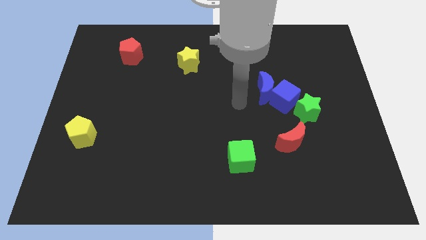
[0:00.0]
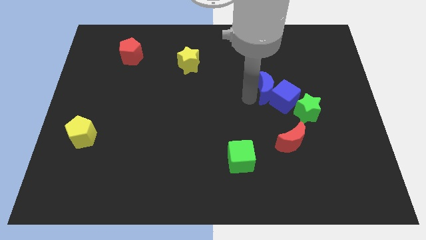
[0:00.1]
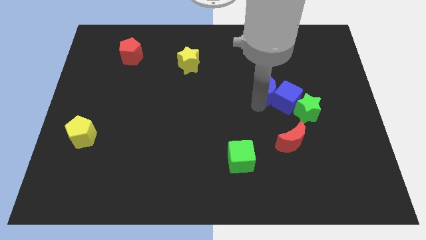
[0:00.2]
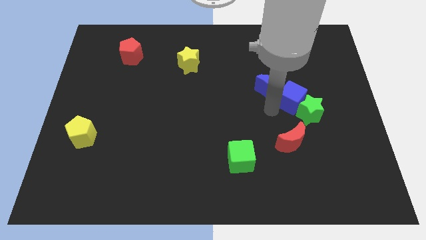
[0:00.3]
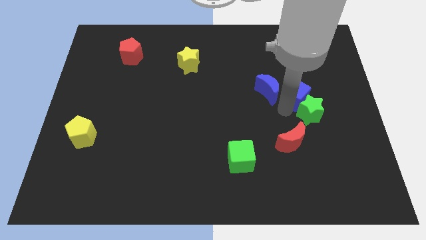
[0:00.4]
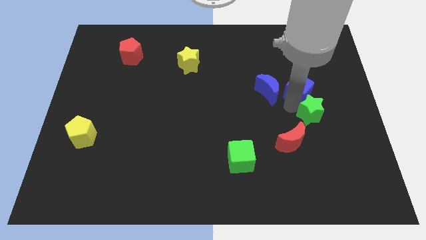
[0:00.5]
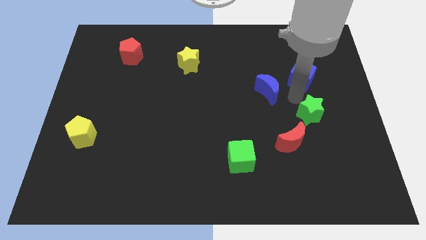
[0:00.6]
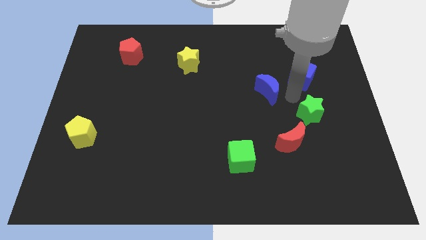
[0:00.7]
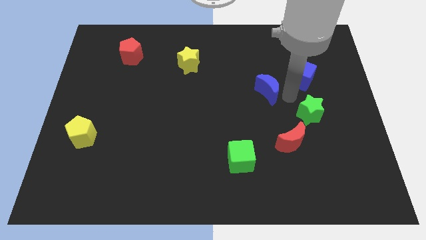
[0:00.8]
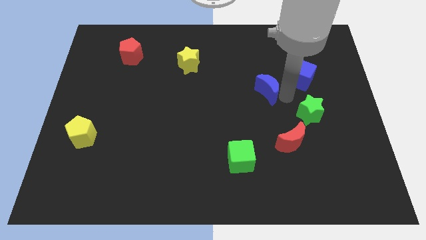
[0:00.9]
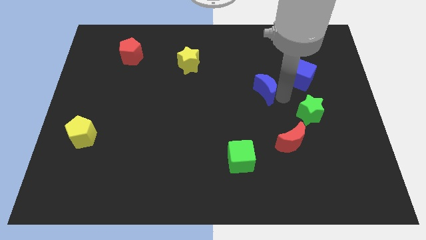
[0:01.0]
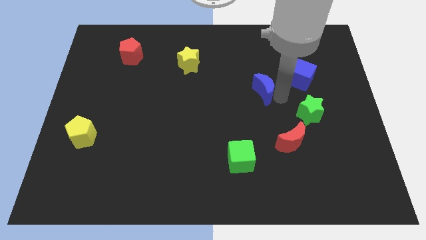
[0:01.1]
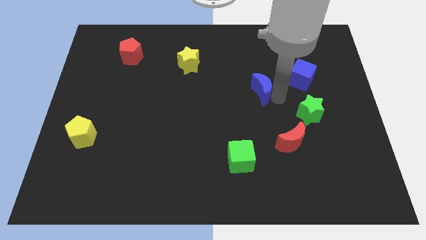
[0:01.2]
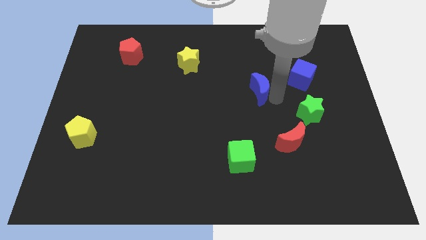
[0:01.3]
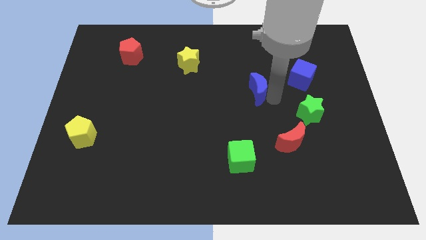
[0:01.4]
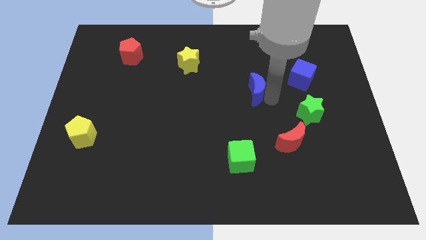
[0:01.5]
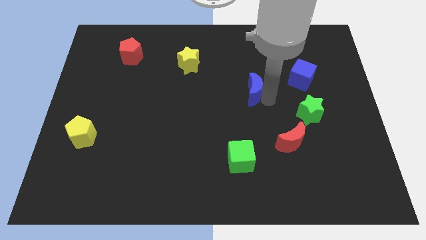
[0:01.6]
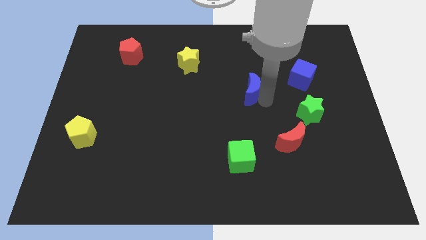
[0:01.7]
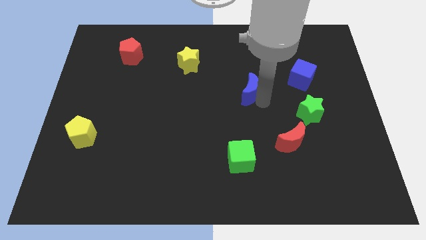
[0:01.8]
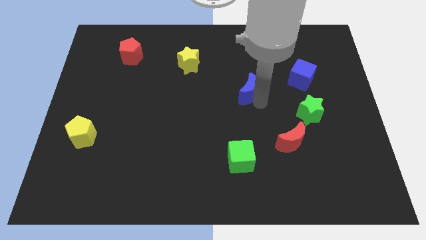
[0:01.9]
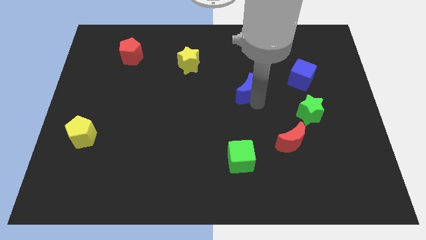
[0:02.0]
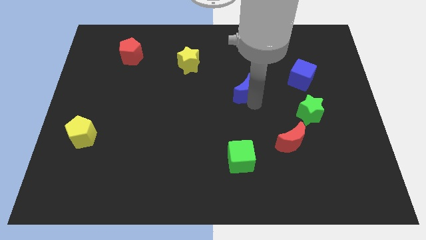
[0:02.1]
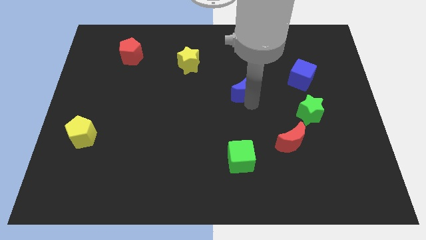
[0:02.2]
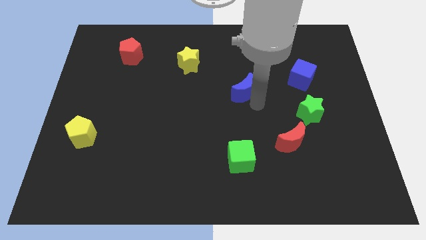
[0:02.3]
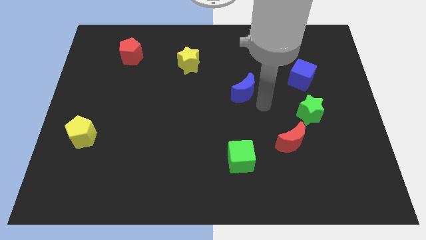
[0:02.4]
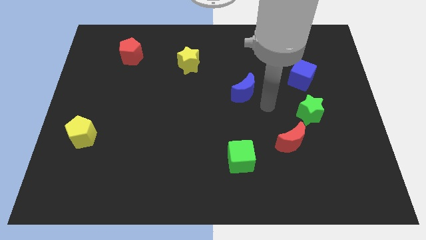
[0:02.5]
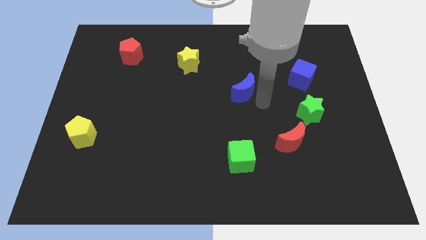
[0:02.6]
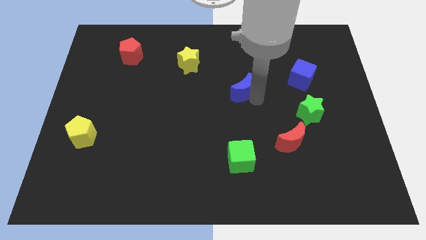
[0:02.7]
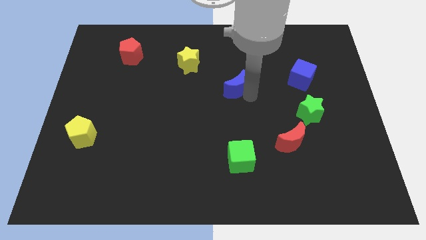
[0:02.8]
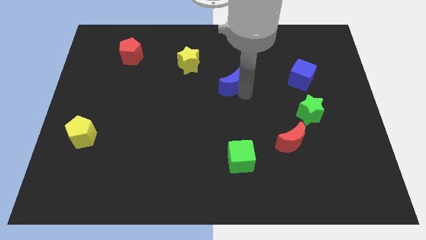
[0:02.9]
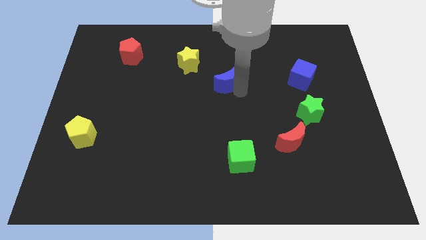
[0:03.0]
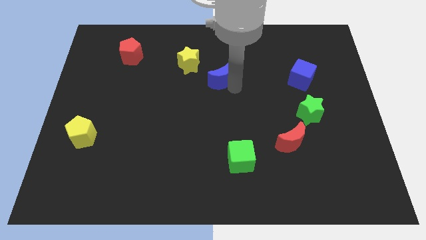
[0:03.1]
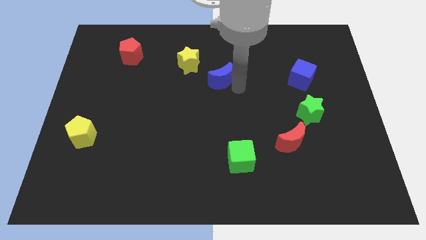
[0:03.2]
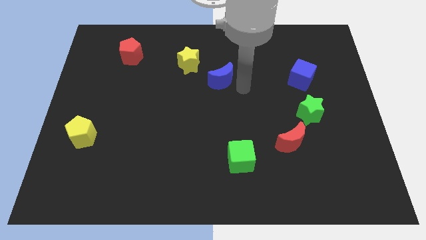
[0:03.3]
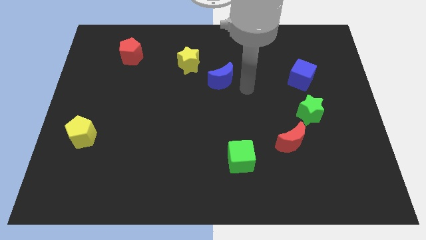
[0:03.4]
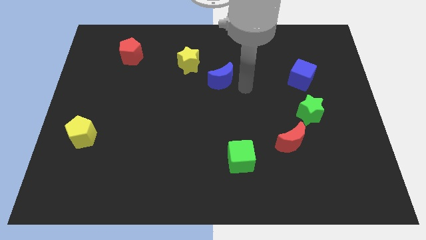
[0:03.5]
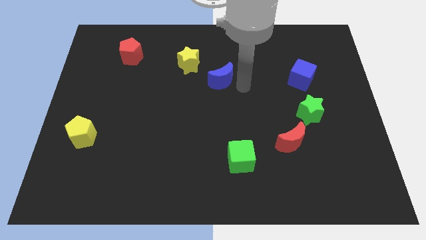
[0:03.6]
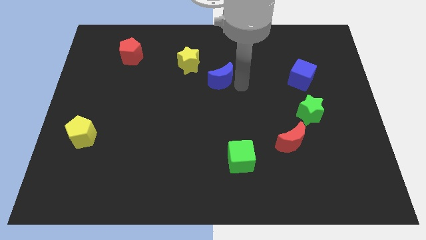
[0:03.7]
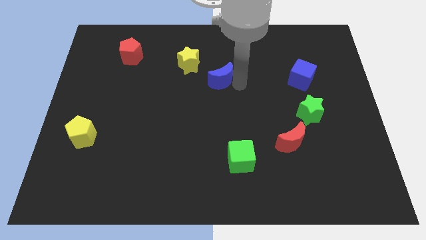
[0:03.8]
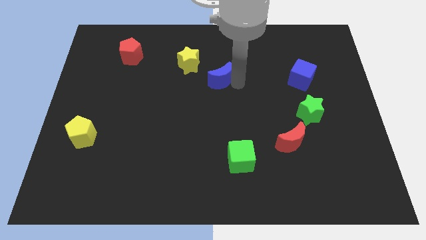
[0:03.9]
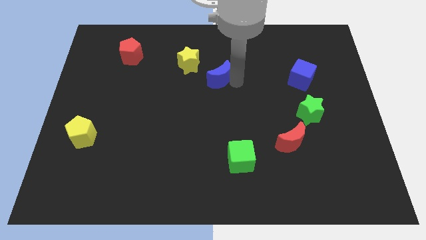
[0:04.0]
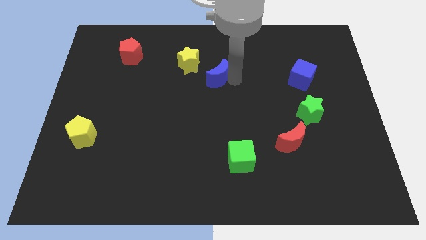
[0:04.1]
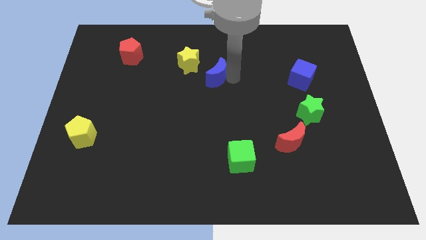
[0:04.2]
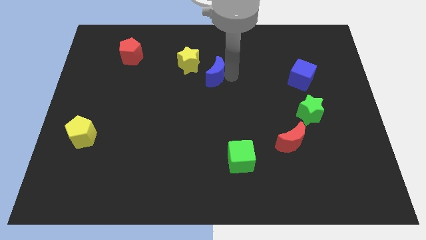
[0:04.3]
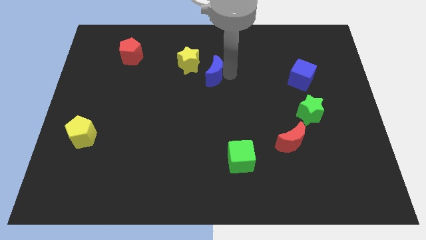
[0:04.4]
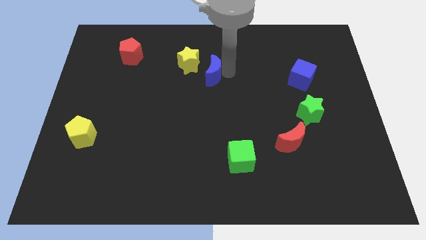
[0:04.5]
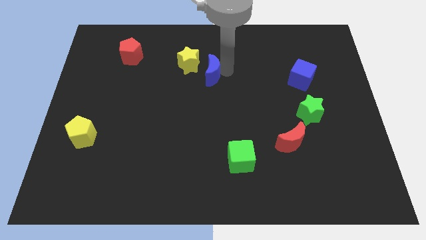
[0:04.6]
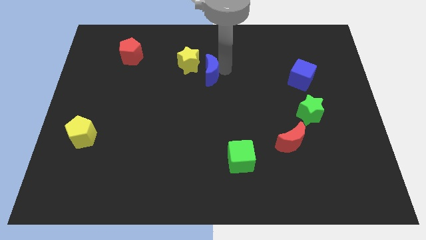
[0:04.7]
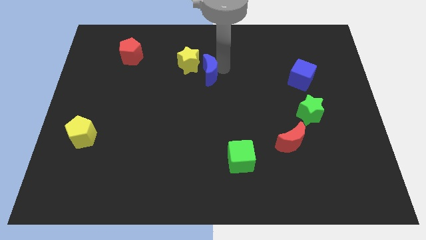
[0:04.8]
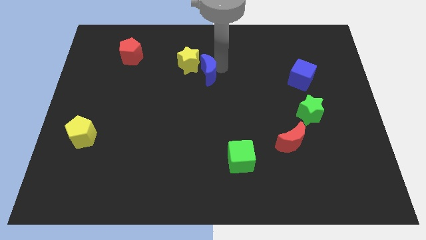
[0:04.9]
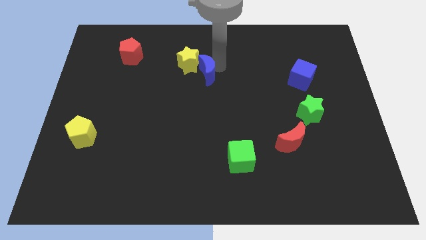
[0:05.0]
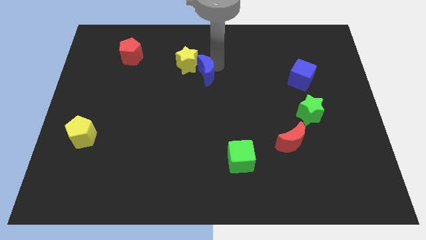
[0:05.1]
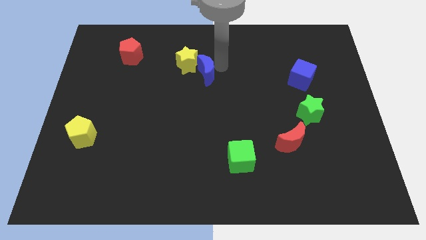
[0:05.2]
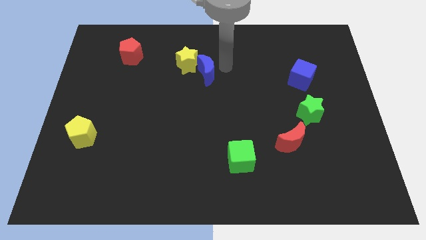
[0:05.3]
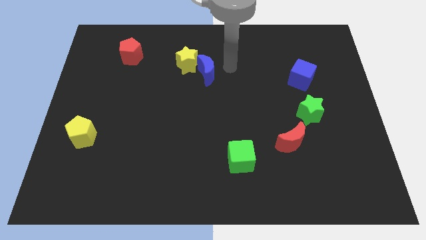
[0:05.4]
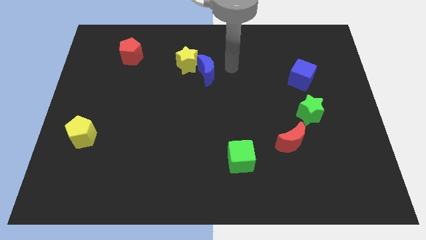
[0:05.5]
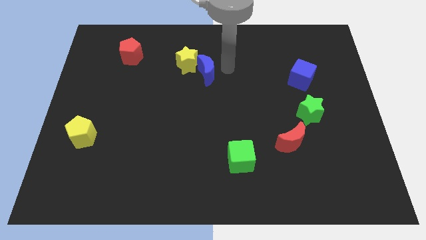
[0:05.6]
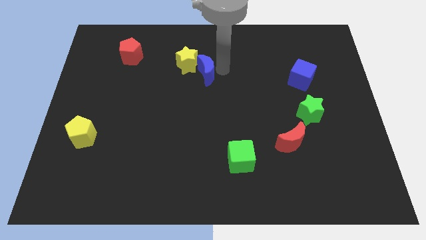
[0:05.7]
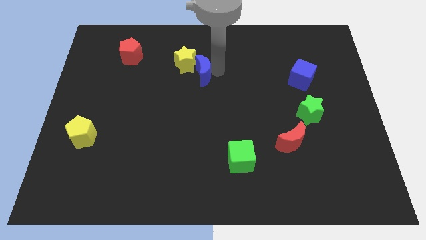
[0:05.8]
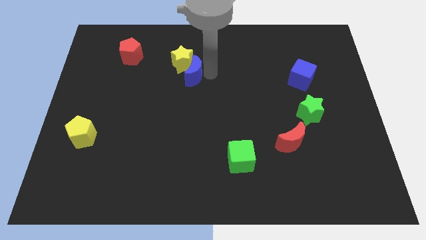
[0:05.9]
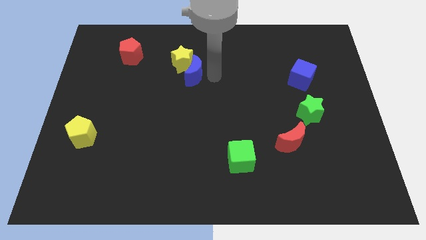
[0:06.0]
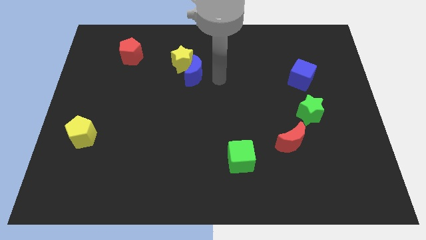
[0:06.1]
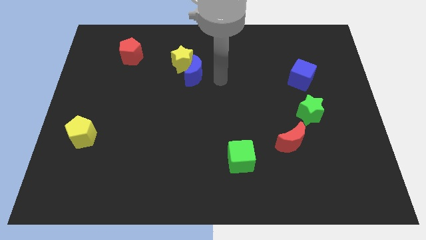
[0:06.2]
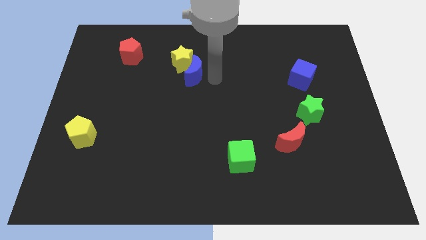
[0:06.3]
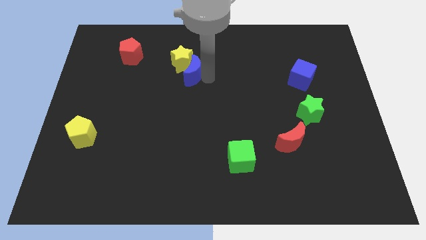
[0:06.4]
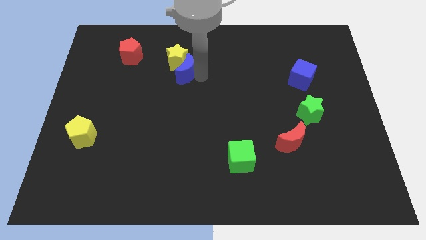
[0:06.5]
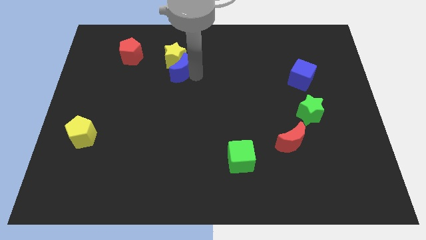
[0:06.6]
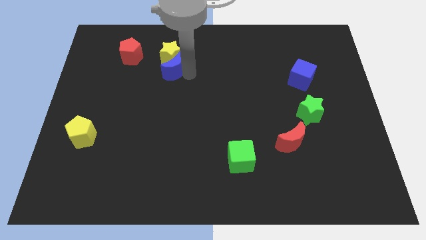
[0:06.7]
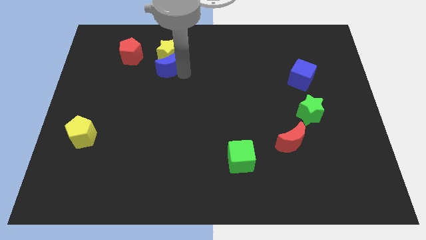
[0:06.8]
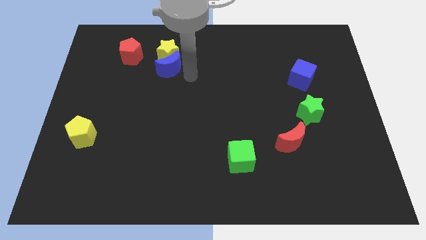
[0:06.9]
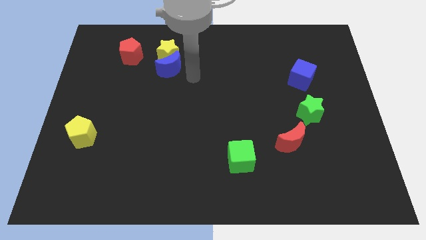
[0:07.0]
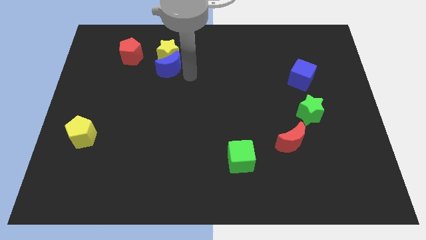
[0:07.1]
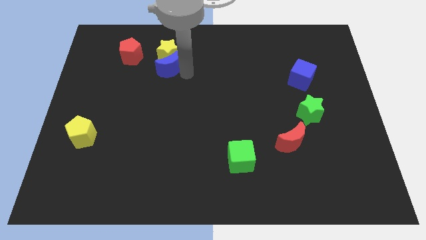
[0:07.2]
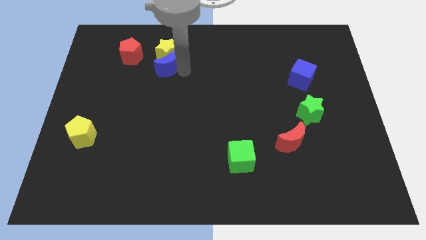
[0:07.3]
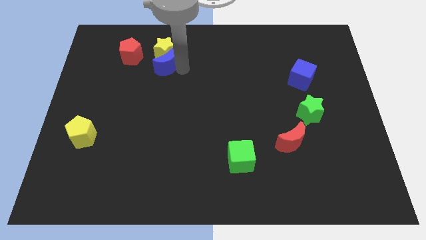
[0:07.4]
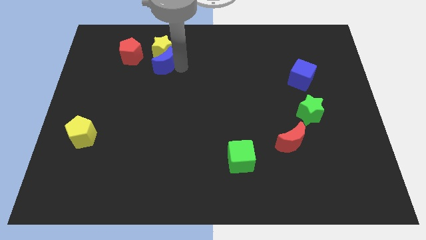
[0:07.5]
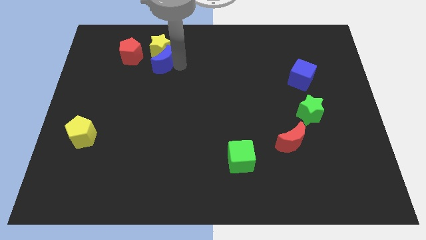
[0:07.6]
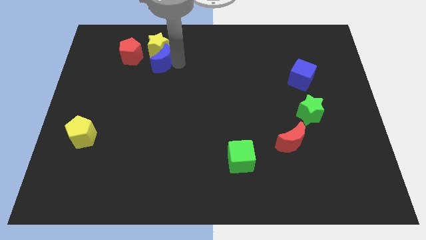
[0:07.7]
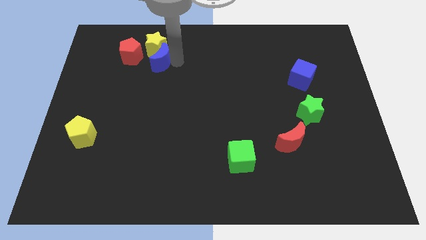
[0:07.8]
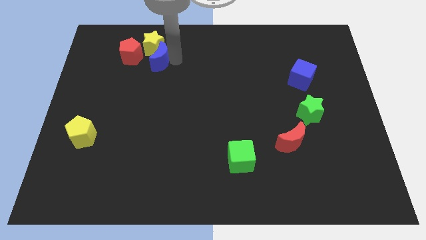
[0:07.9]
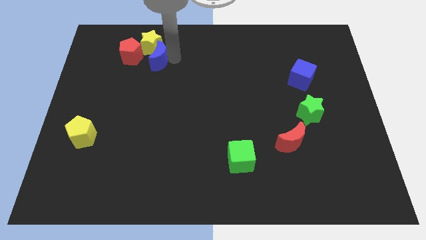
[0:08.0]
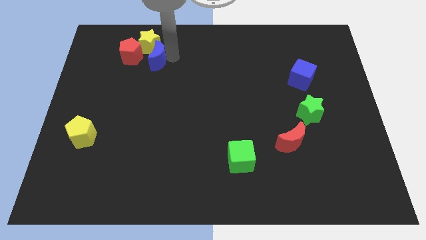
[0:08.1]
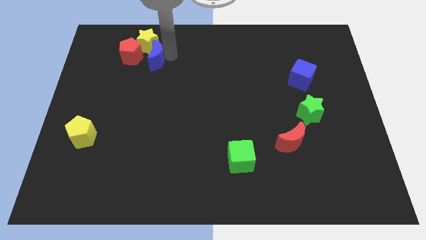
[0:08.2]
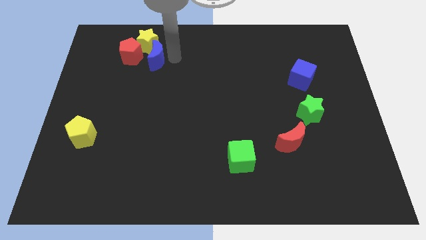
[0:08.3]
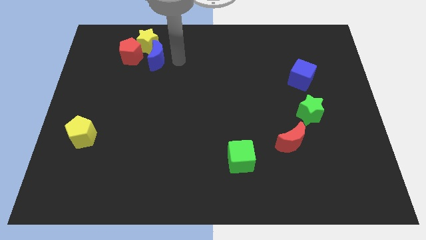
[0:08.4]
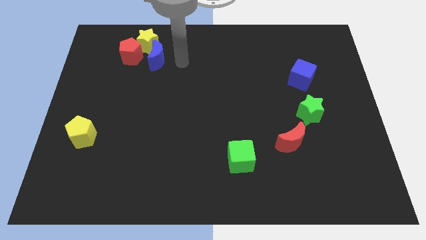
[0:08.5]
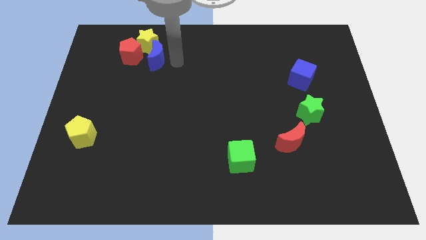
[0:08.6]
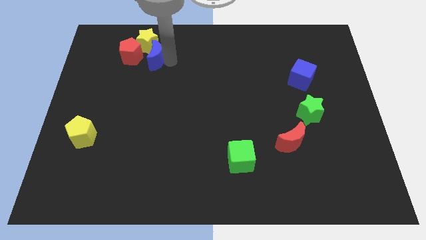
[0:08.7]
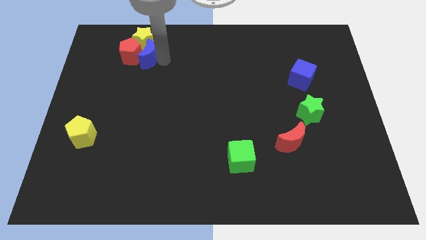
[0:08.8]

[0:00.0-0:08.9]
move the blue moon next to the red pentagon
